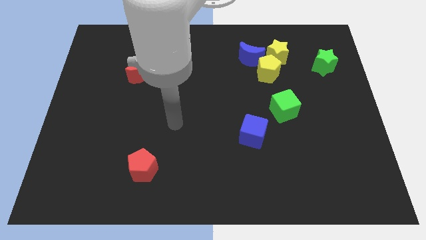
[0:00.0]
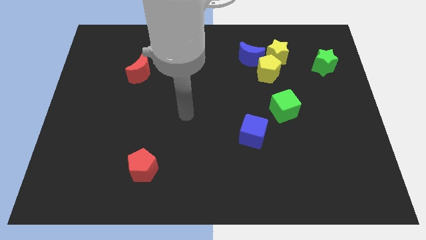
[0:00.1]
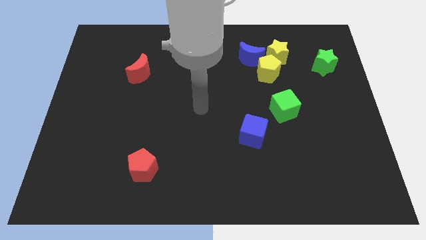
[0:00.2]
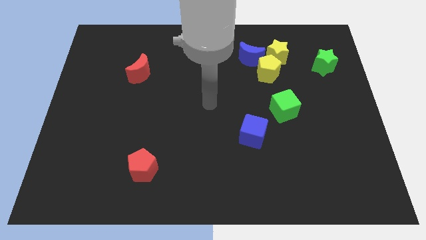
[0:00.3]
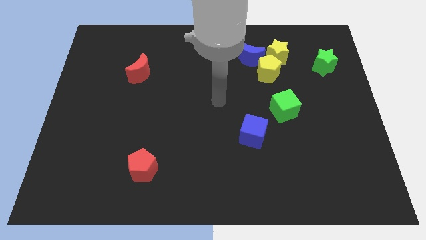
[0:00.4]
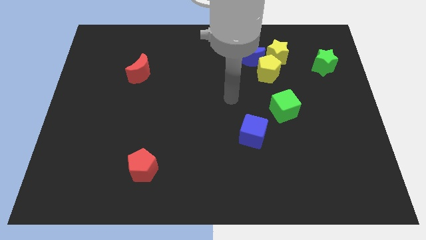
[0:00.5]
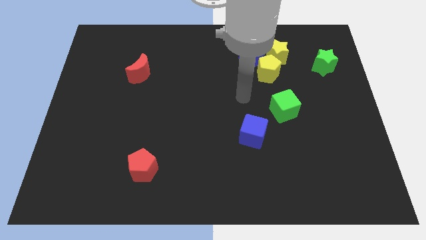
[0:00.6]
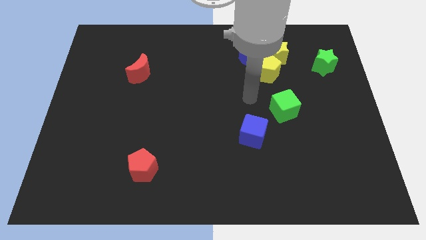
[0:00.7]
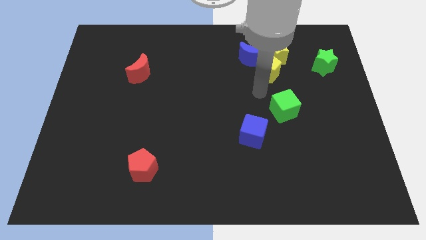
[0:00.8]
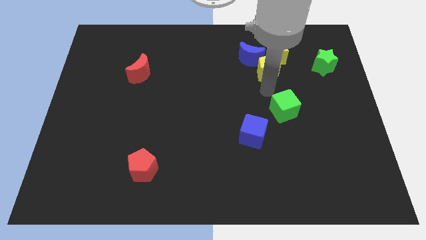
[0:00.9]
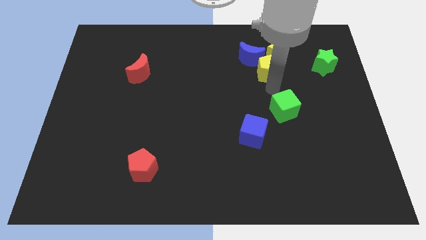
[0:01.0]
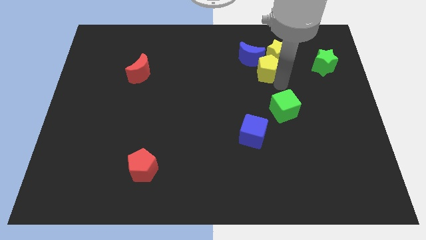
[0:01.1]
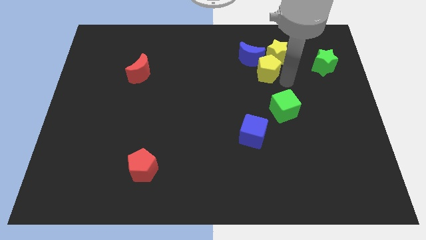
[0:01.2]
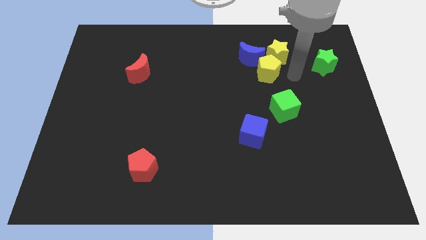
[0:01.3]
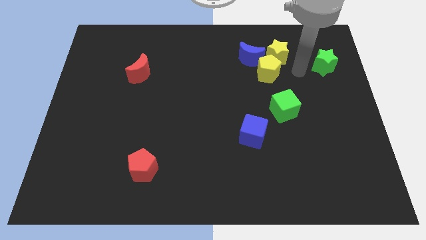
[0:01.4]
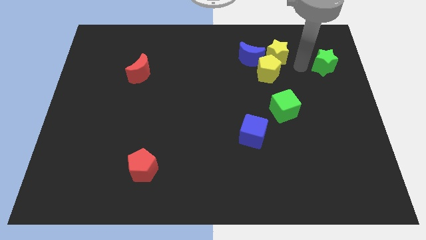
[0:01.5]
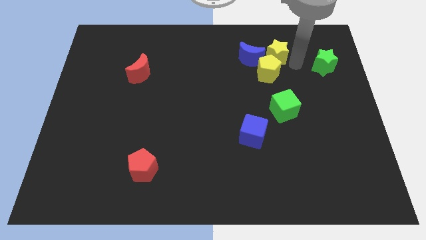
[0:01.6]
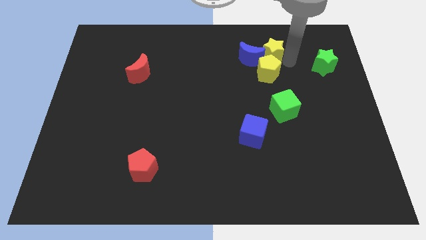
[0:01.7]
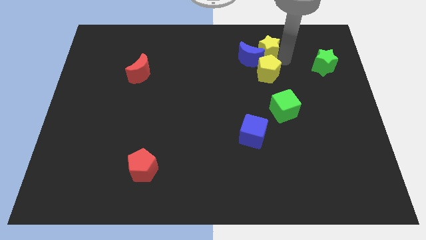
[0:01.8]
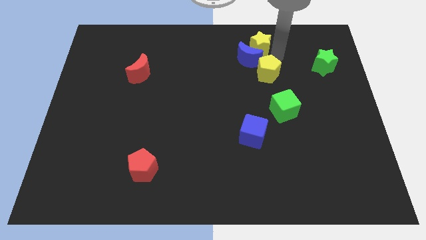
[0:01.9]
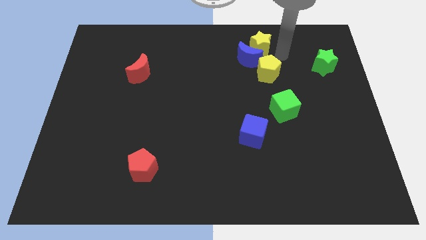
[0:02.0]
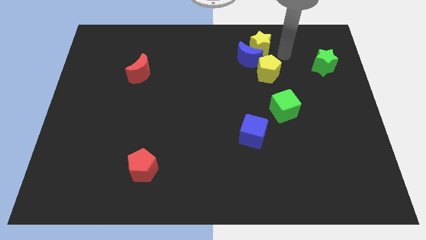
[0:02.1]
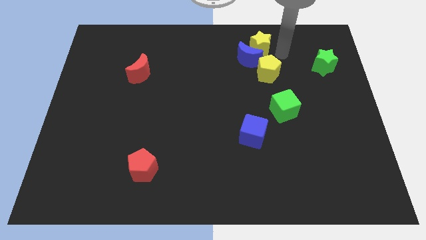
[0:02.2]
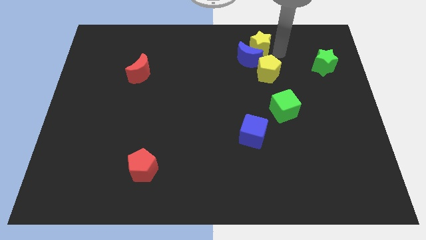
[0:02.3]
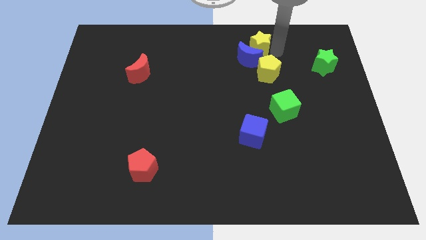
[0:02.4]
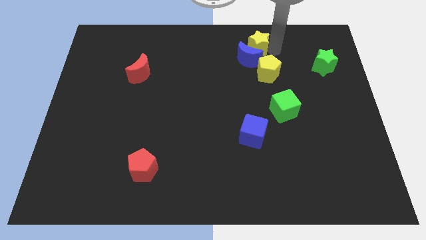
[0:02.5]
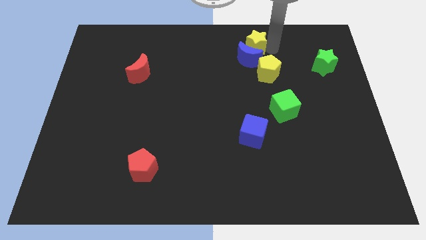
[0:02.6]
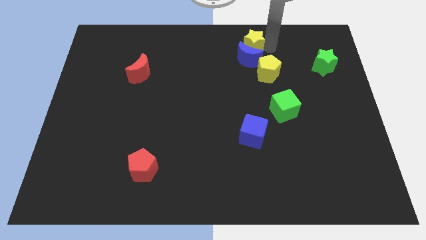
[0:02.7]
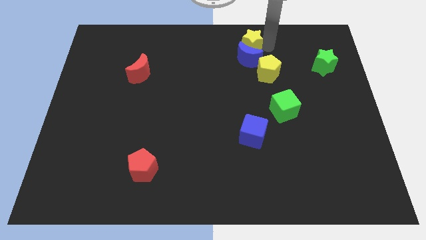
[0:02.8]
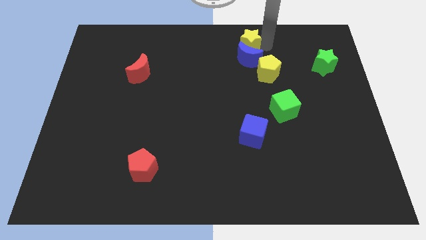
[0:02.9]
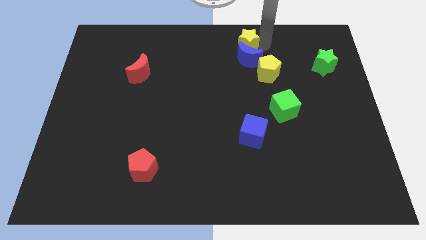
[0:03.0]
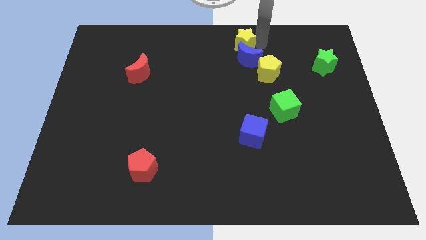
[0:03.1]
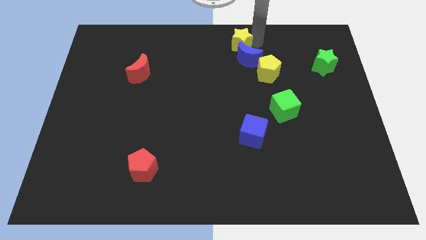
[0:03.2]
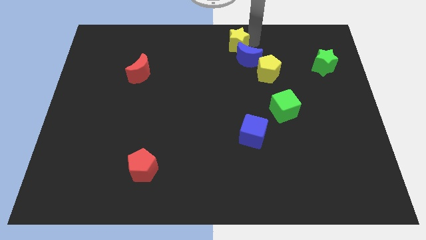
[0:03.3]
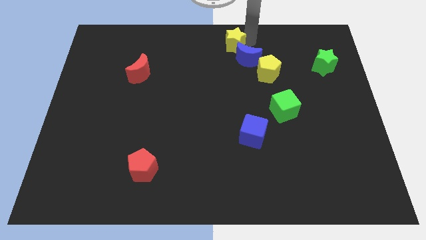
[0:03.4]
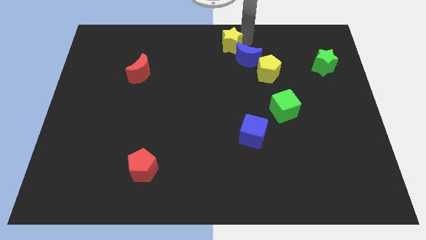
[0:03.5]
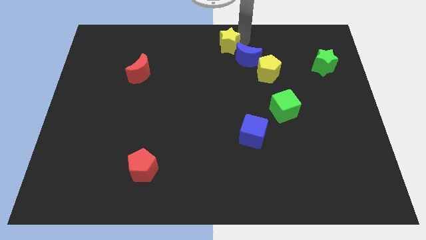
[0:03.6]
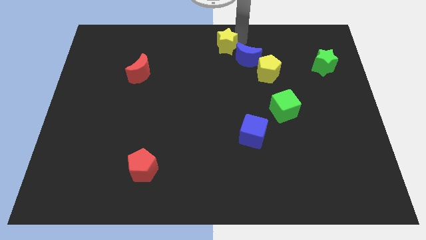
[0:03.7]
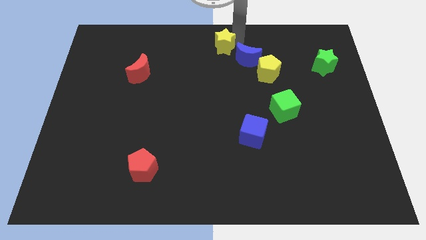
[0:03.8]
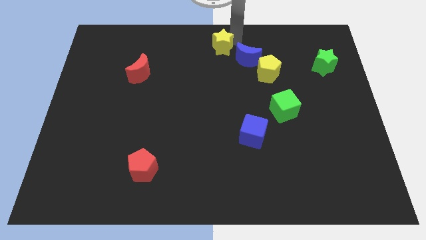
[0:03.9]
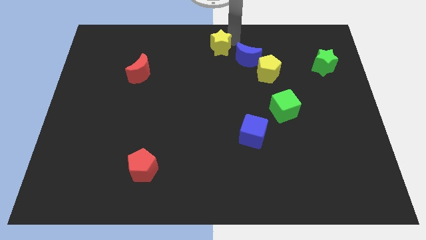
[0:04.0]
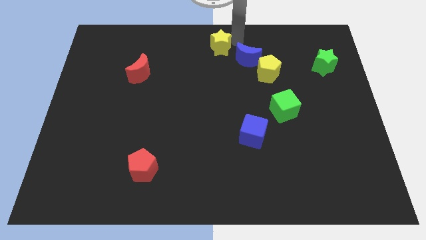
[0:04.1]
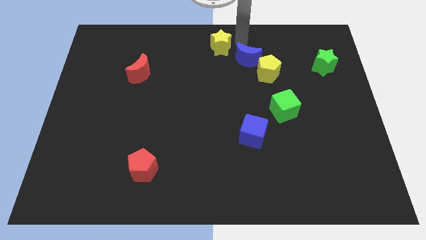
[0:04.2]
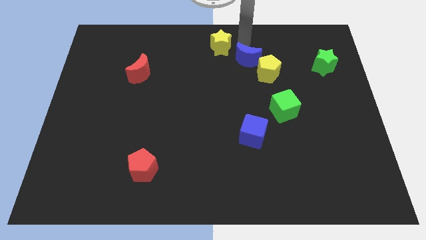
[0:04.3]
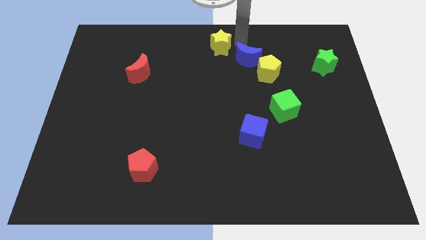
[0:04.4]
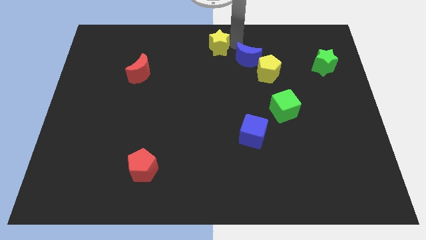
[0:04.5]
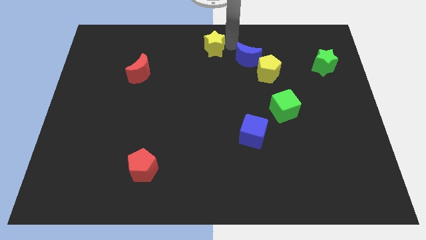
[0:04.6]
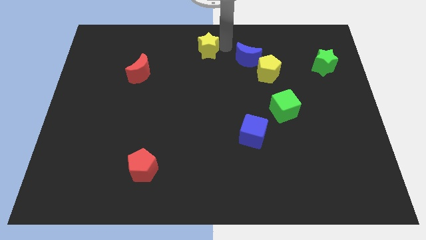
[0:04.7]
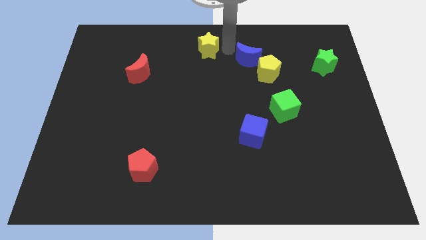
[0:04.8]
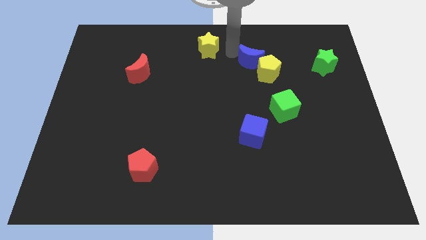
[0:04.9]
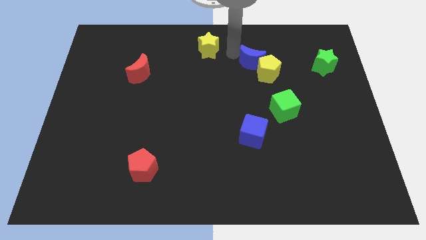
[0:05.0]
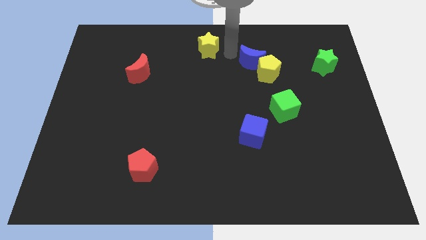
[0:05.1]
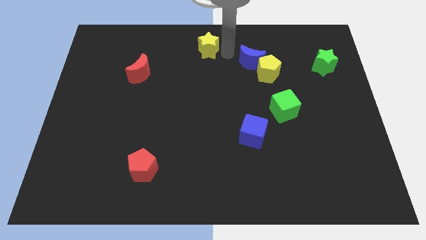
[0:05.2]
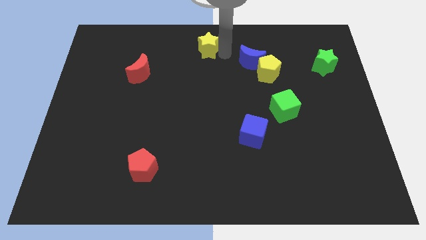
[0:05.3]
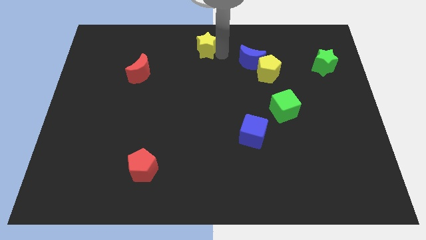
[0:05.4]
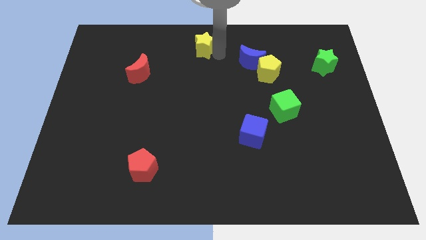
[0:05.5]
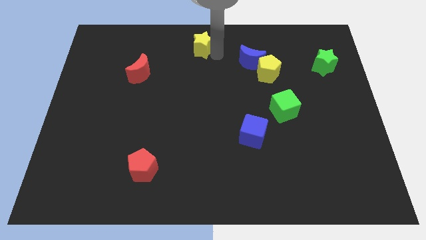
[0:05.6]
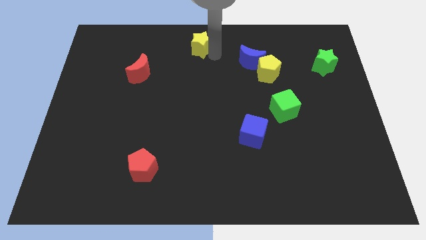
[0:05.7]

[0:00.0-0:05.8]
slide the yellow star to the left

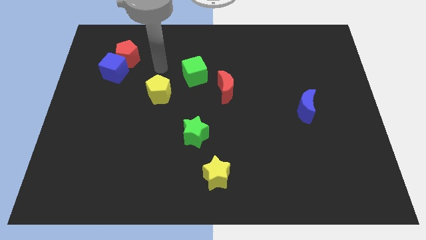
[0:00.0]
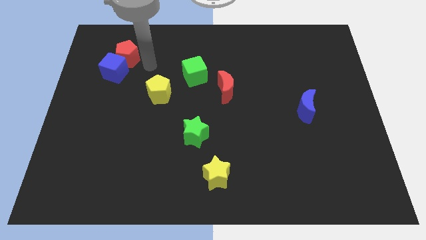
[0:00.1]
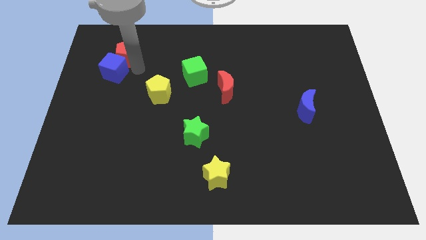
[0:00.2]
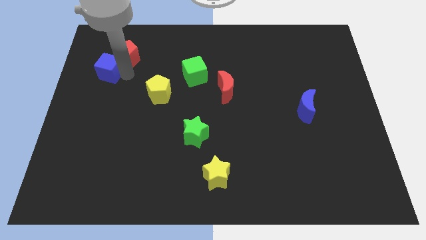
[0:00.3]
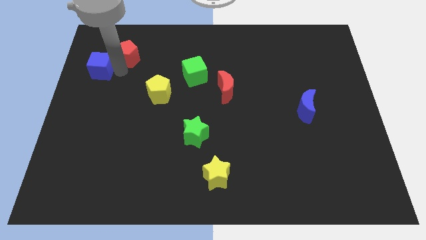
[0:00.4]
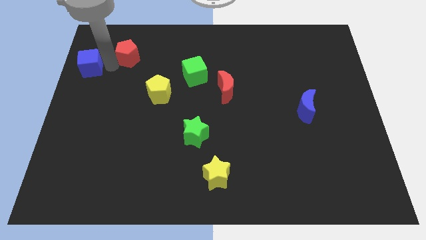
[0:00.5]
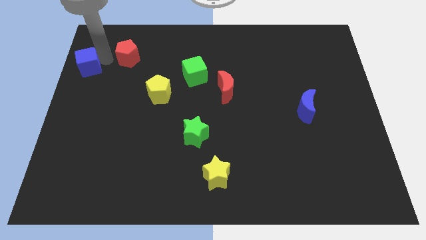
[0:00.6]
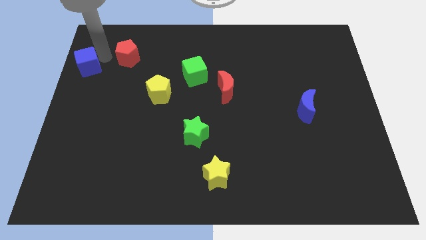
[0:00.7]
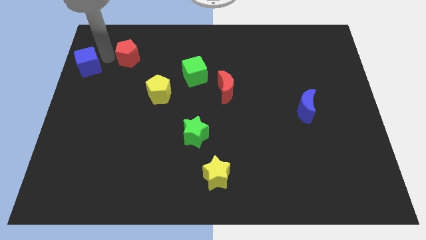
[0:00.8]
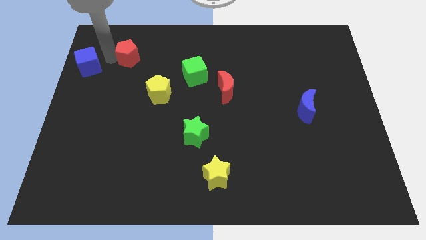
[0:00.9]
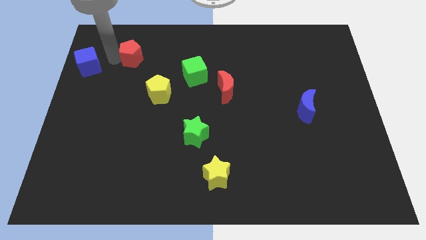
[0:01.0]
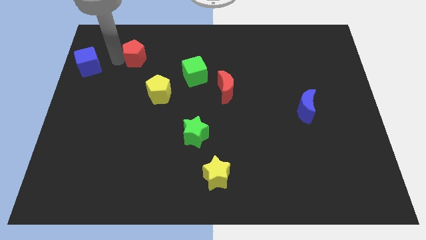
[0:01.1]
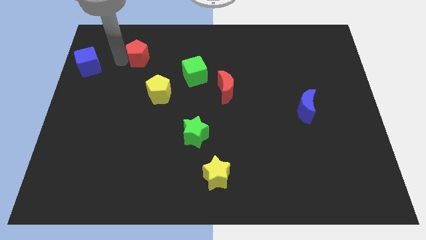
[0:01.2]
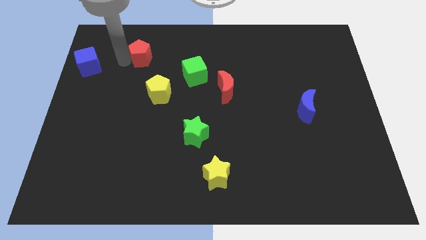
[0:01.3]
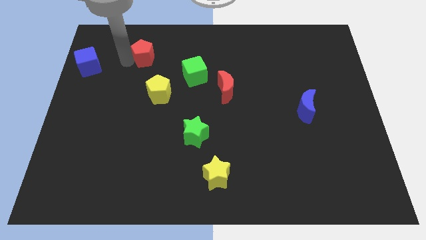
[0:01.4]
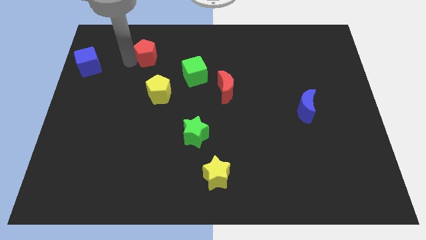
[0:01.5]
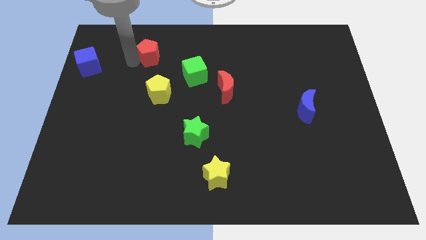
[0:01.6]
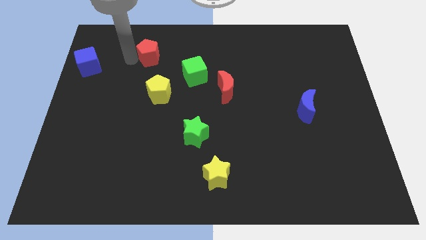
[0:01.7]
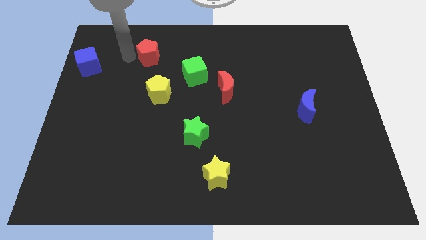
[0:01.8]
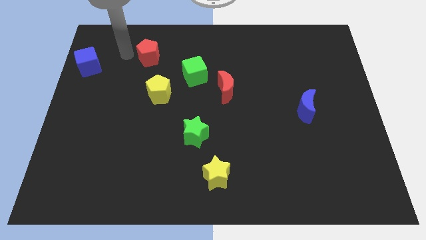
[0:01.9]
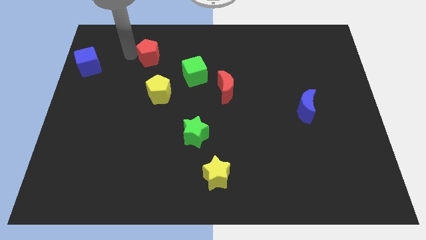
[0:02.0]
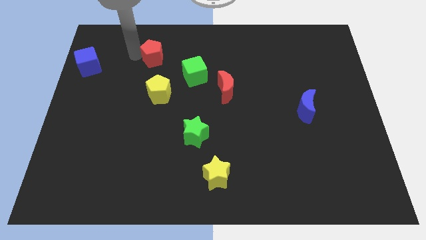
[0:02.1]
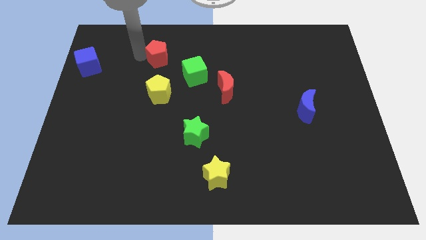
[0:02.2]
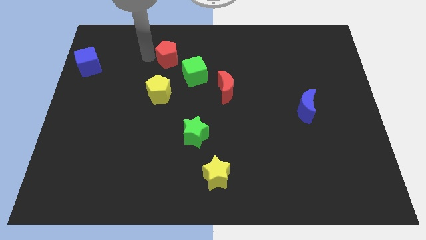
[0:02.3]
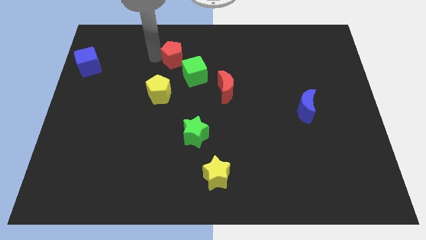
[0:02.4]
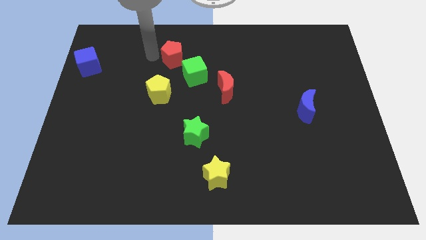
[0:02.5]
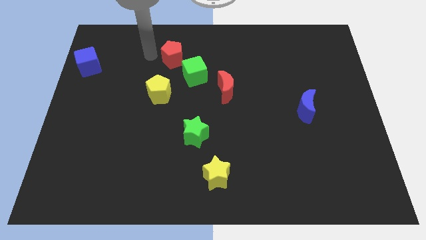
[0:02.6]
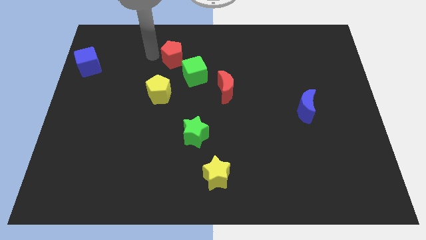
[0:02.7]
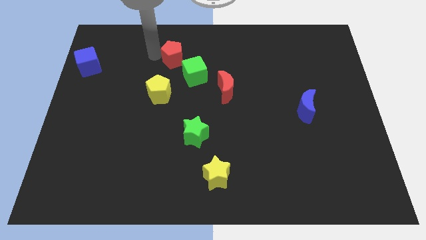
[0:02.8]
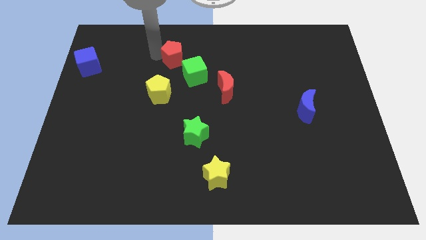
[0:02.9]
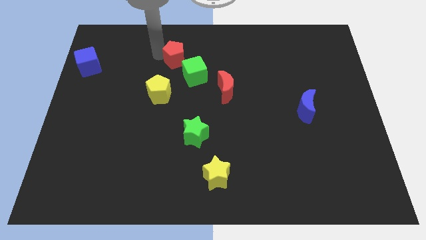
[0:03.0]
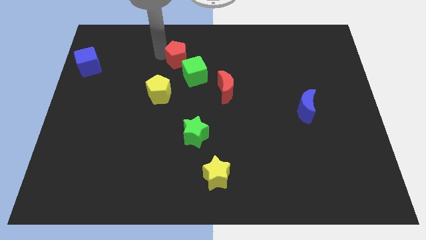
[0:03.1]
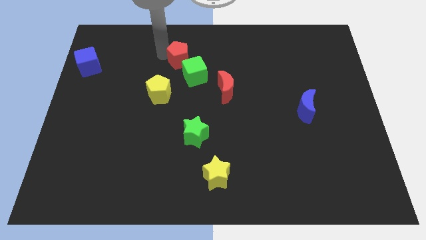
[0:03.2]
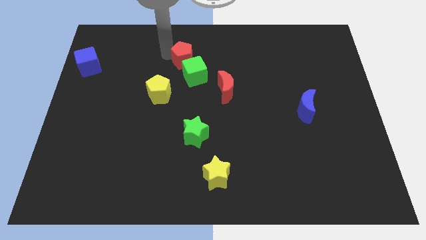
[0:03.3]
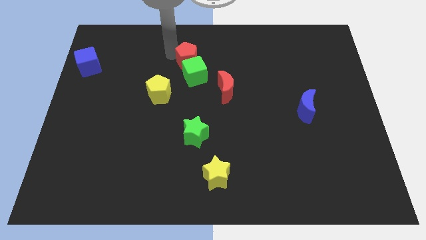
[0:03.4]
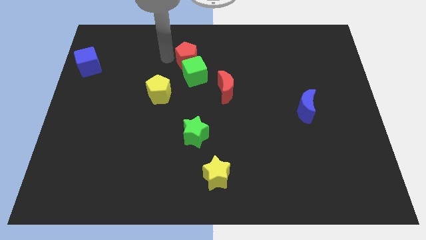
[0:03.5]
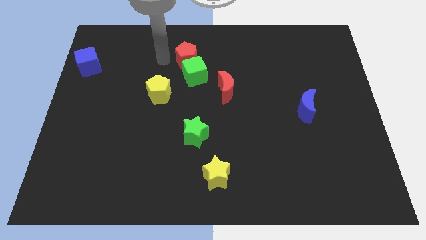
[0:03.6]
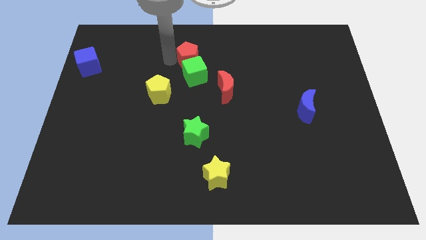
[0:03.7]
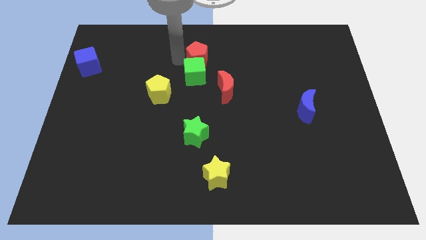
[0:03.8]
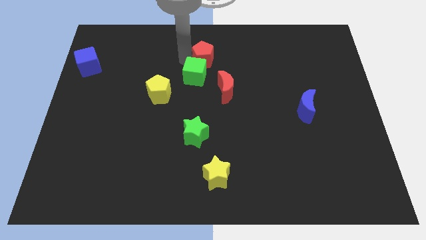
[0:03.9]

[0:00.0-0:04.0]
push the red pentagon to the right
